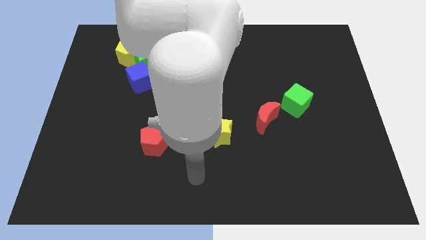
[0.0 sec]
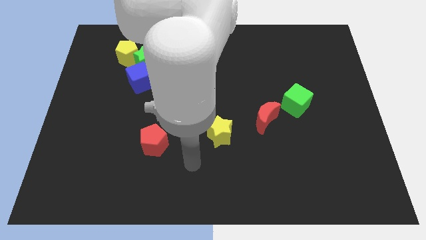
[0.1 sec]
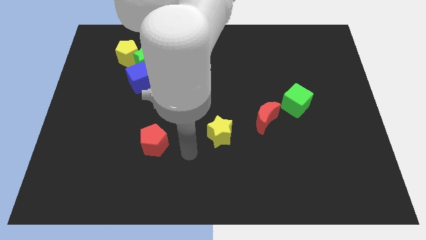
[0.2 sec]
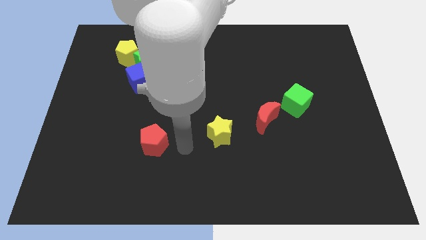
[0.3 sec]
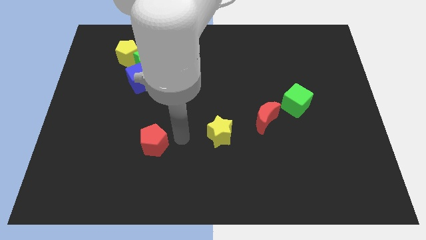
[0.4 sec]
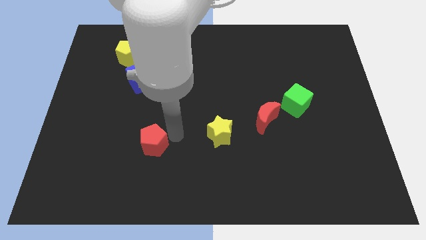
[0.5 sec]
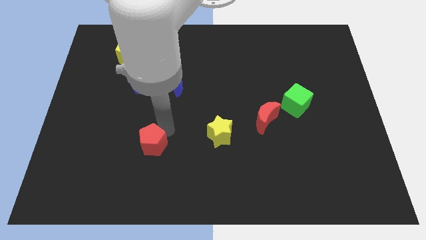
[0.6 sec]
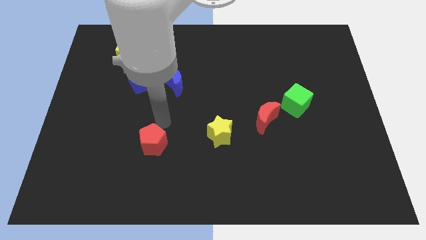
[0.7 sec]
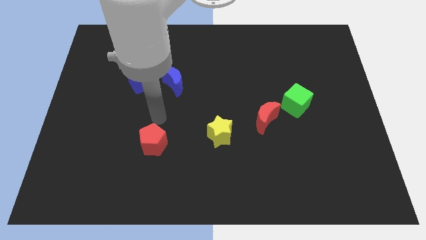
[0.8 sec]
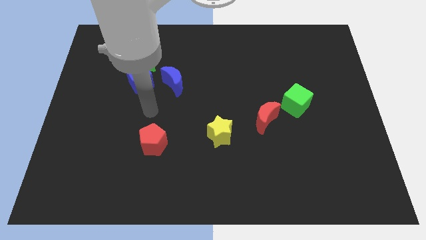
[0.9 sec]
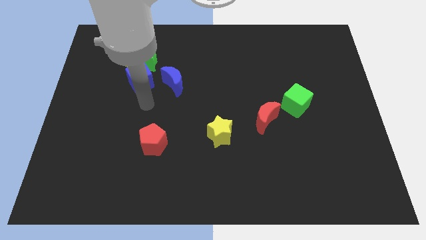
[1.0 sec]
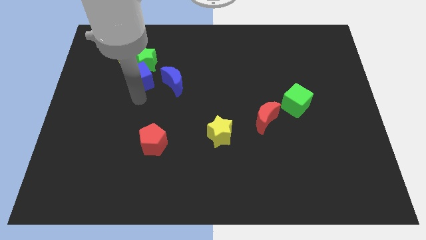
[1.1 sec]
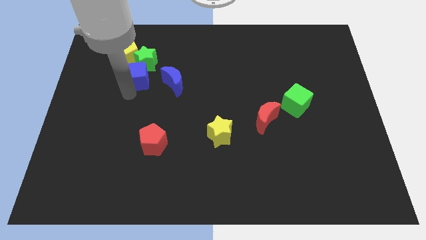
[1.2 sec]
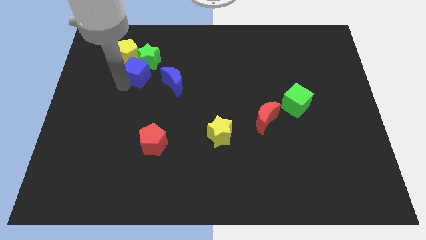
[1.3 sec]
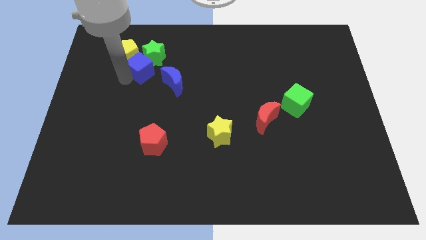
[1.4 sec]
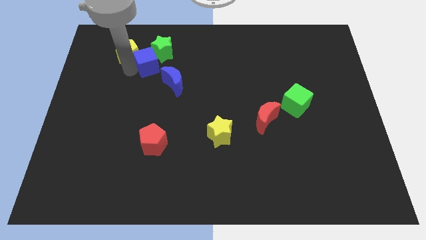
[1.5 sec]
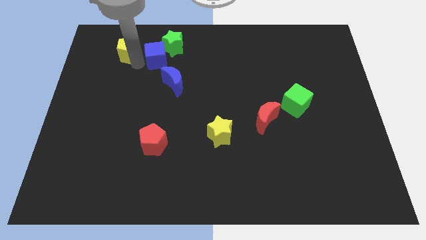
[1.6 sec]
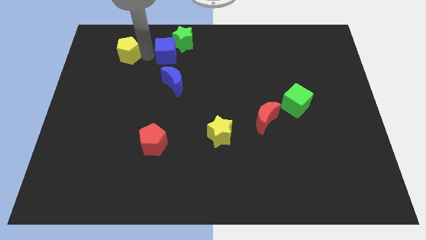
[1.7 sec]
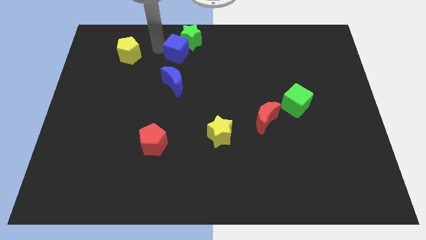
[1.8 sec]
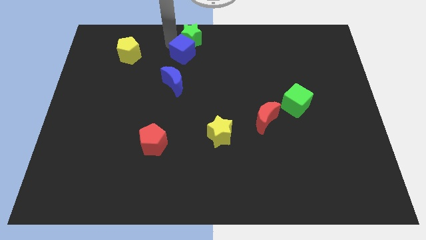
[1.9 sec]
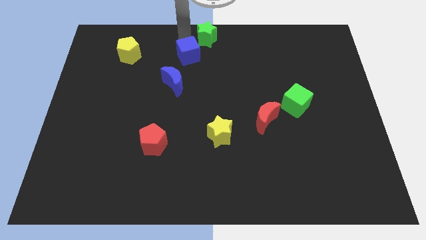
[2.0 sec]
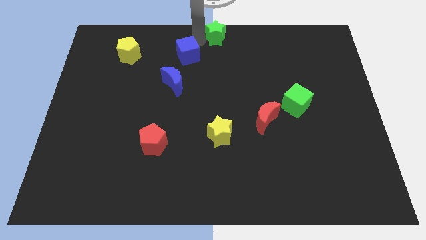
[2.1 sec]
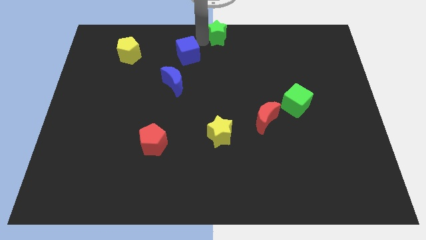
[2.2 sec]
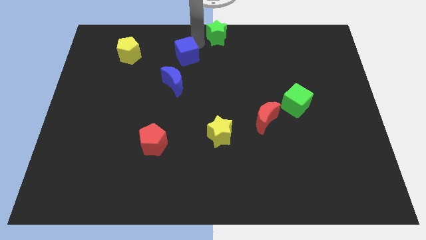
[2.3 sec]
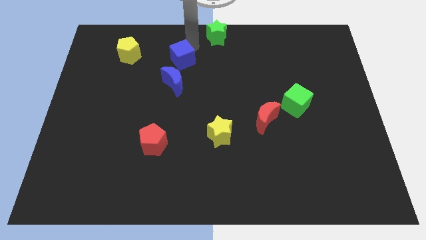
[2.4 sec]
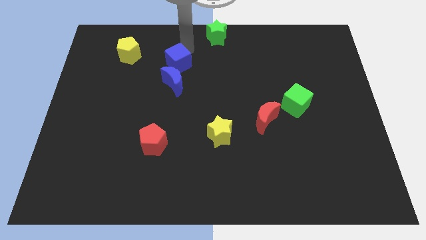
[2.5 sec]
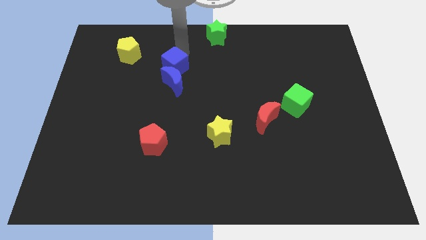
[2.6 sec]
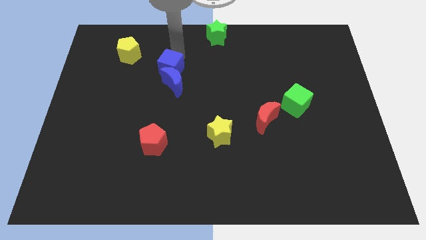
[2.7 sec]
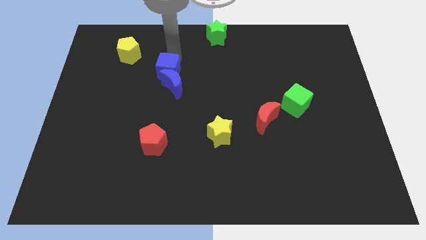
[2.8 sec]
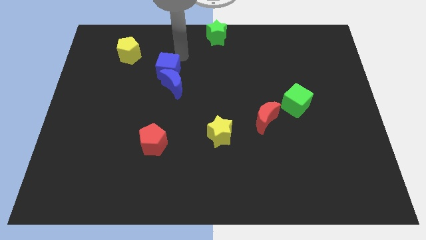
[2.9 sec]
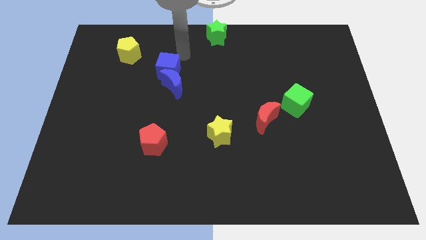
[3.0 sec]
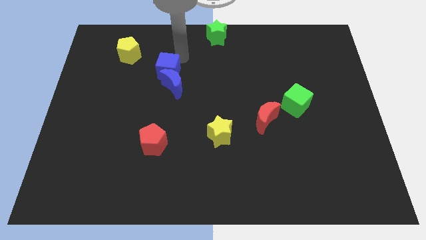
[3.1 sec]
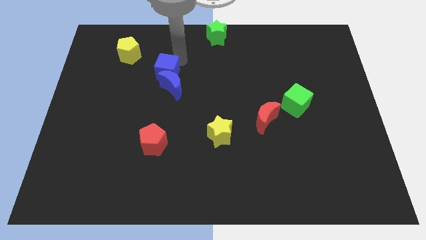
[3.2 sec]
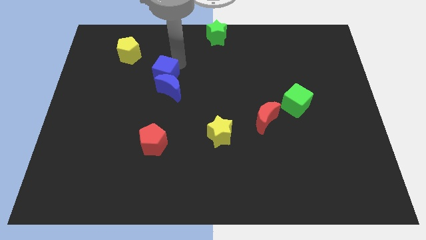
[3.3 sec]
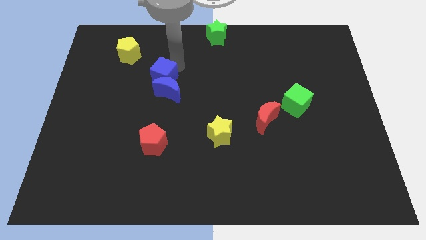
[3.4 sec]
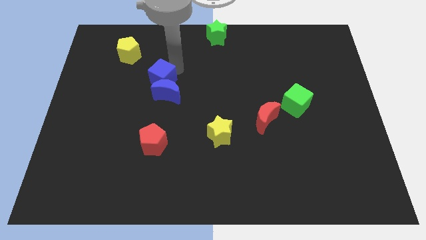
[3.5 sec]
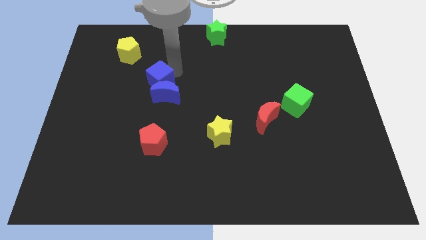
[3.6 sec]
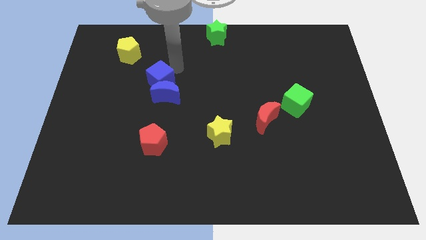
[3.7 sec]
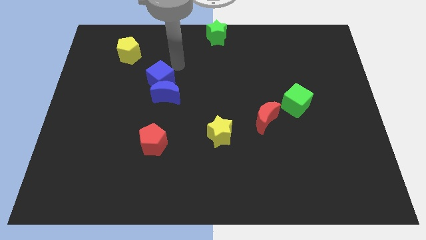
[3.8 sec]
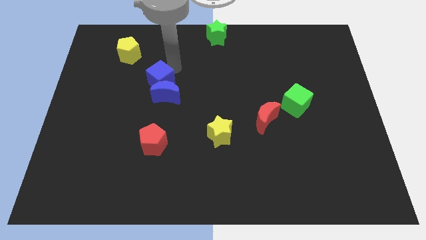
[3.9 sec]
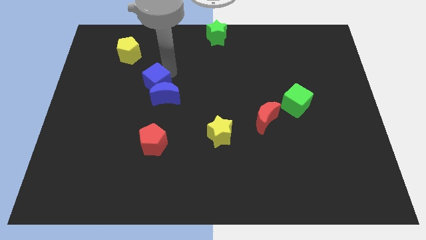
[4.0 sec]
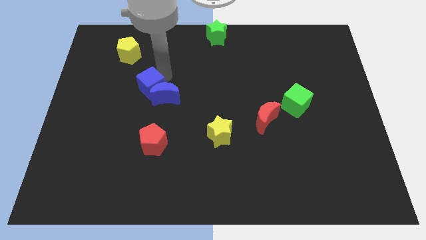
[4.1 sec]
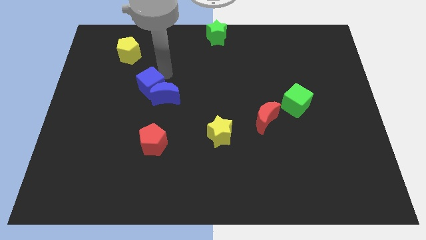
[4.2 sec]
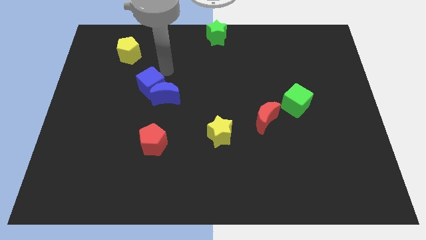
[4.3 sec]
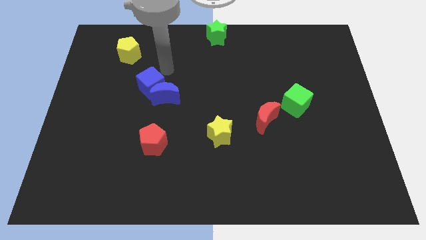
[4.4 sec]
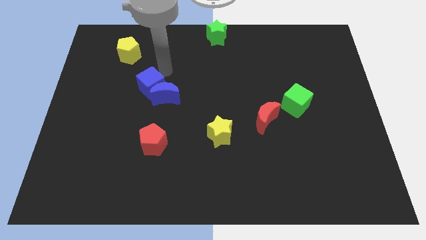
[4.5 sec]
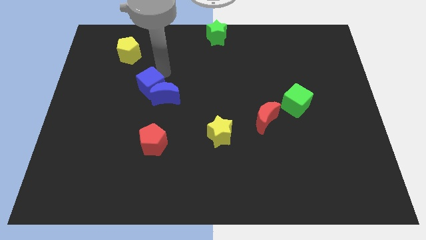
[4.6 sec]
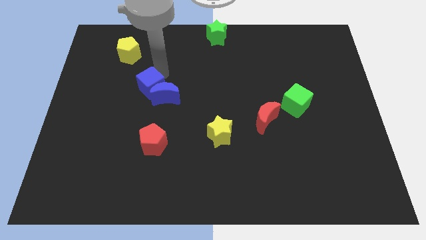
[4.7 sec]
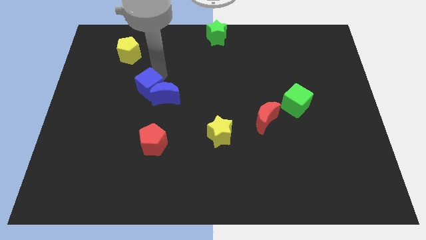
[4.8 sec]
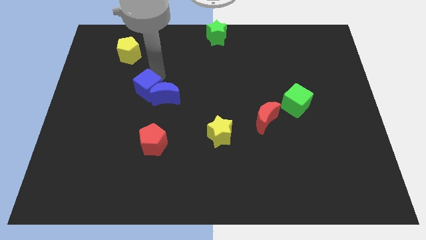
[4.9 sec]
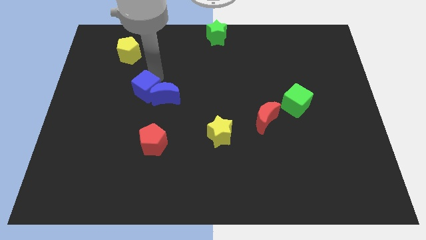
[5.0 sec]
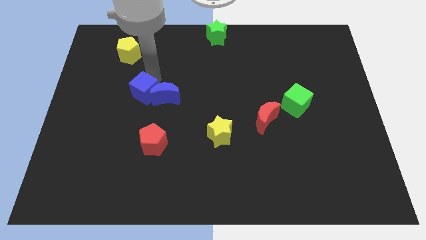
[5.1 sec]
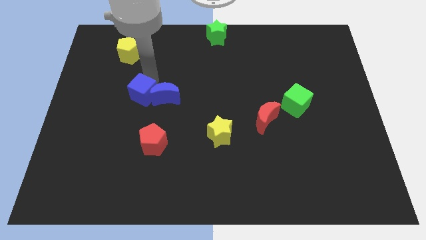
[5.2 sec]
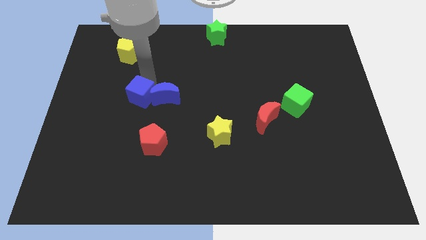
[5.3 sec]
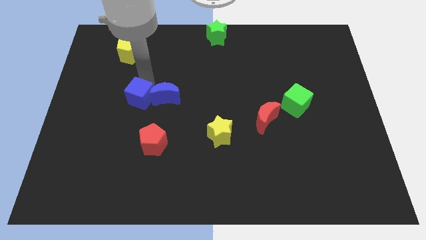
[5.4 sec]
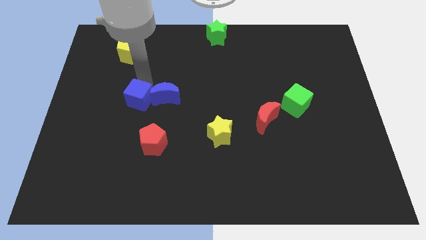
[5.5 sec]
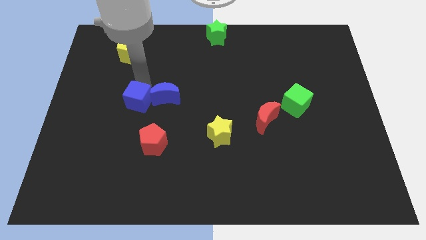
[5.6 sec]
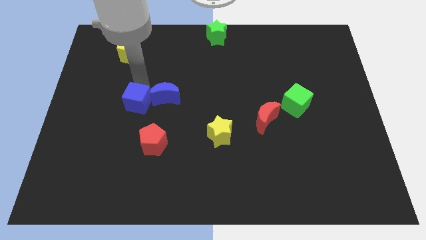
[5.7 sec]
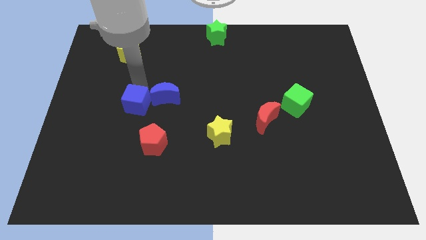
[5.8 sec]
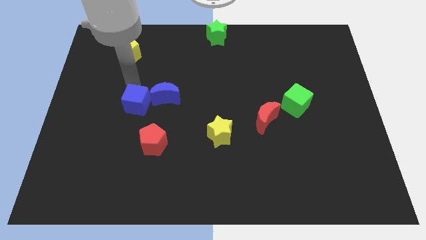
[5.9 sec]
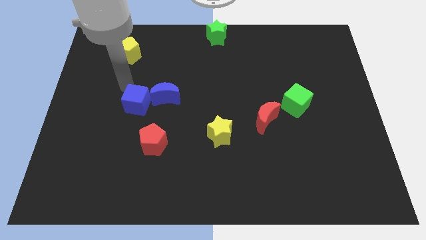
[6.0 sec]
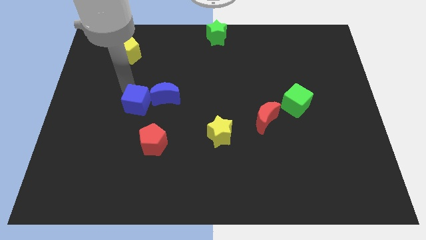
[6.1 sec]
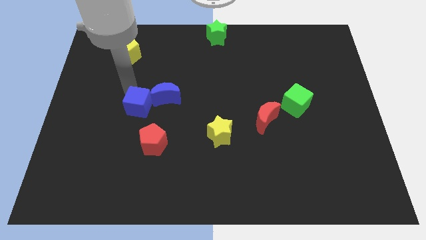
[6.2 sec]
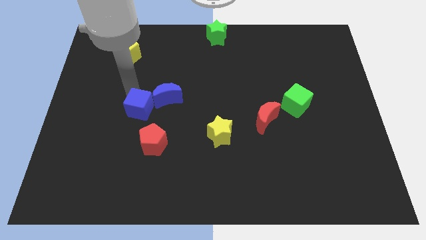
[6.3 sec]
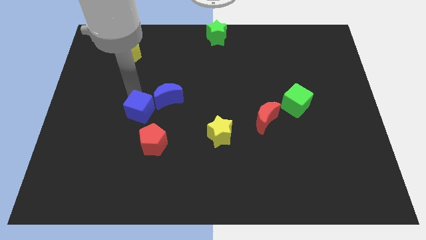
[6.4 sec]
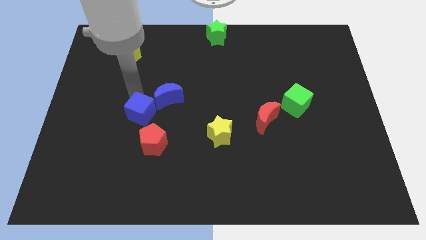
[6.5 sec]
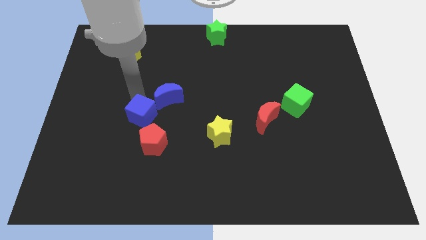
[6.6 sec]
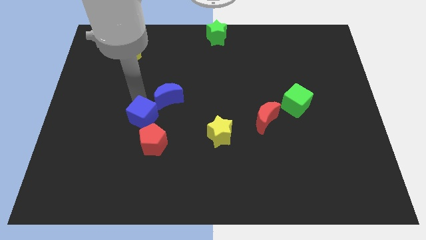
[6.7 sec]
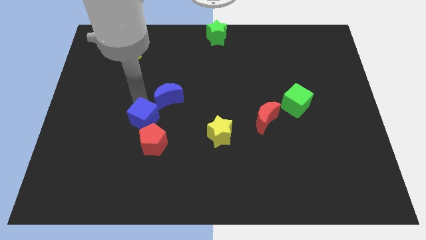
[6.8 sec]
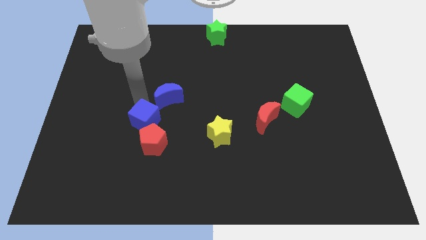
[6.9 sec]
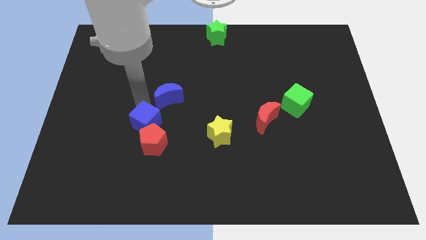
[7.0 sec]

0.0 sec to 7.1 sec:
push the blue cube close to the red pentagon
